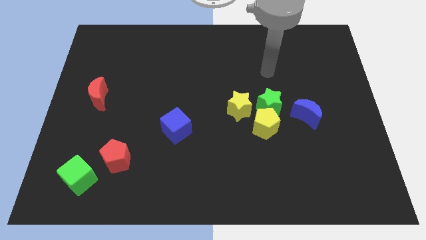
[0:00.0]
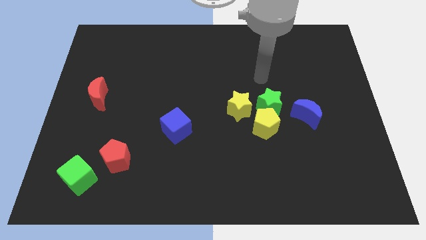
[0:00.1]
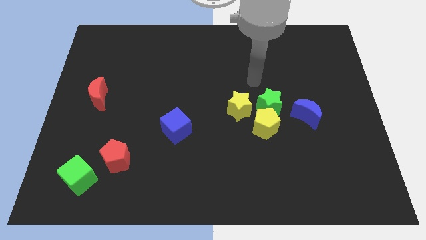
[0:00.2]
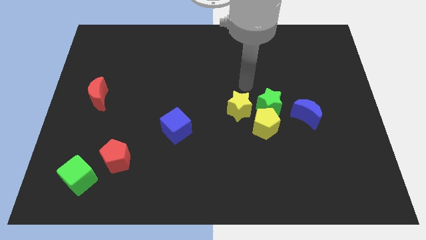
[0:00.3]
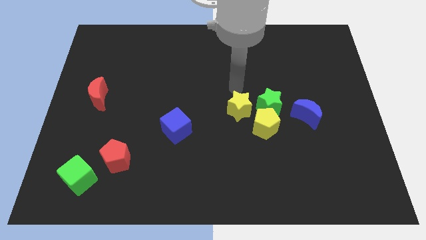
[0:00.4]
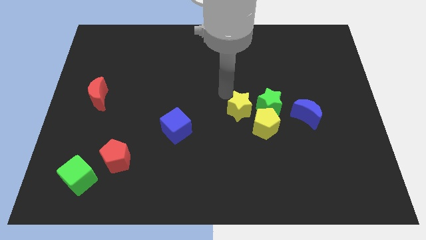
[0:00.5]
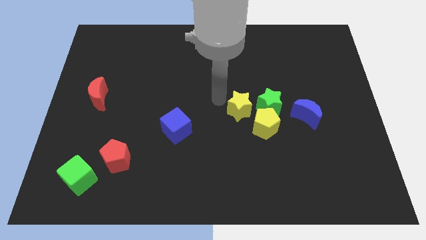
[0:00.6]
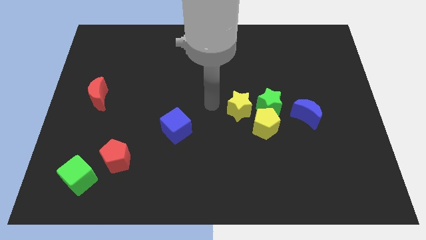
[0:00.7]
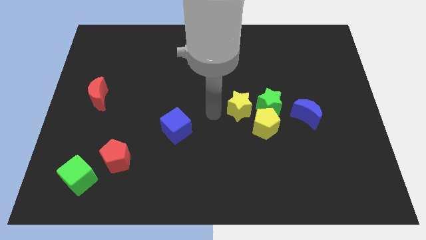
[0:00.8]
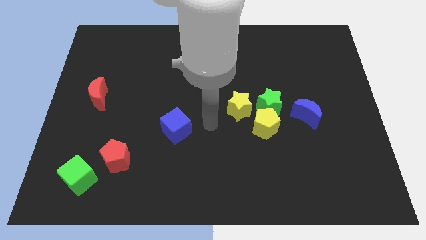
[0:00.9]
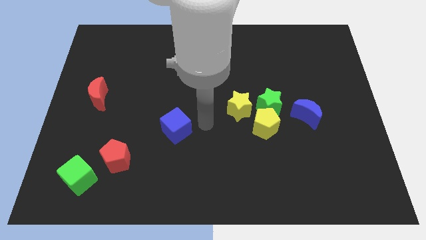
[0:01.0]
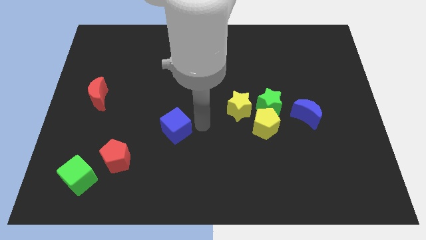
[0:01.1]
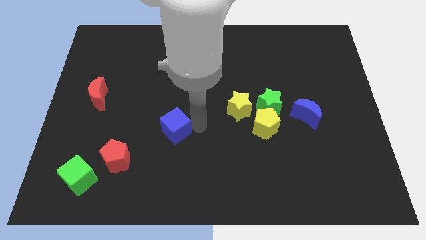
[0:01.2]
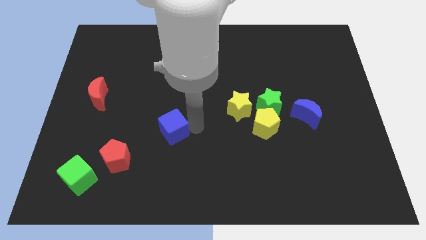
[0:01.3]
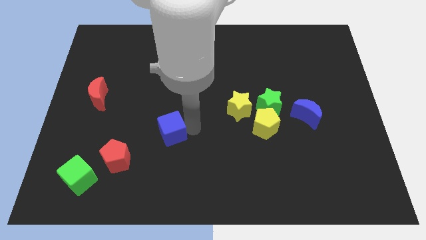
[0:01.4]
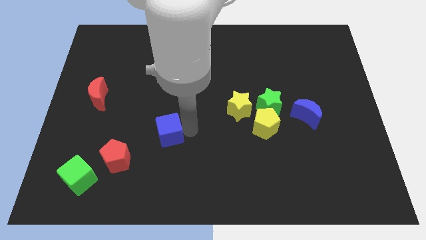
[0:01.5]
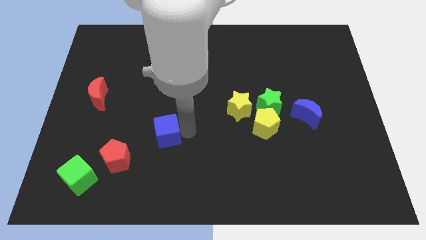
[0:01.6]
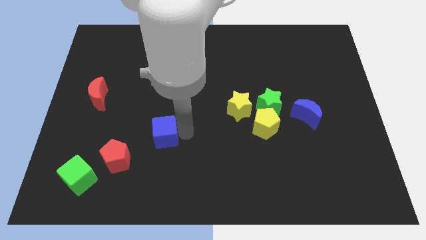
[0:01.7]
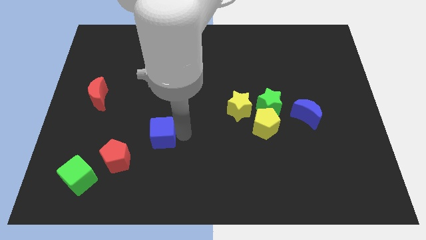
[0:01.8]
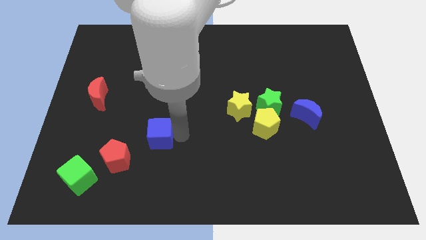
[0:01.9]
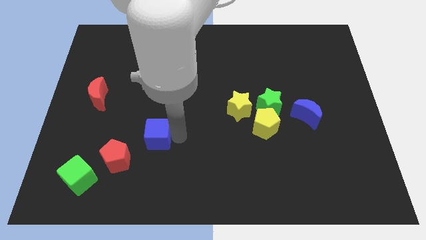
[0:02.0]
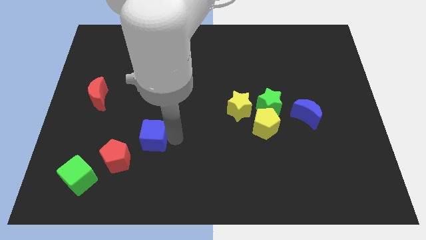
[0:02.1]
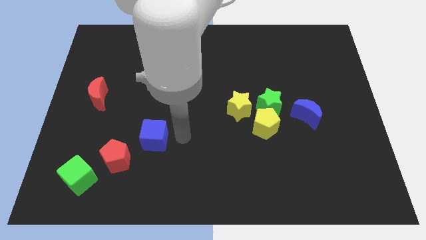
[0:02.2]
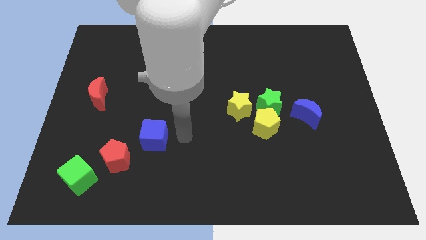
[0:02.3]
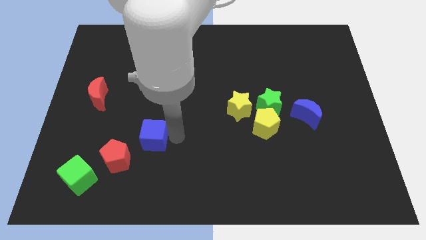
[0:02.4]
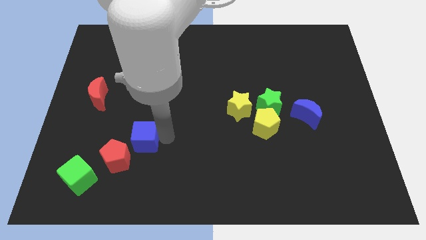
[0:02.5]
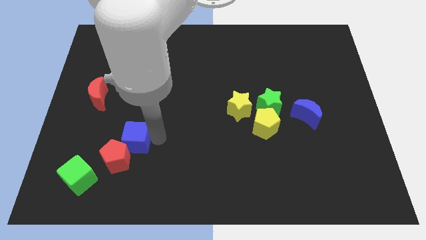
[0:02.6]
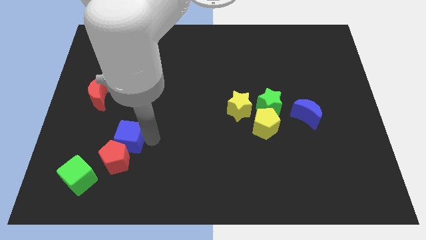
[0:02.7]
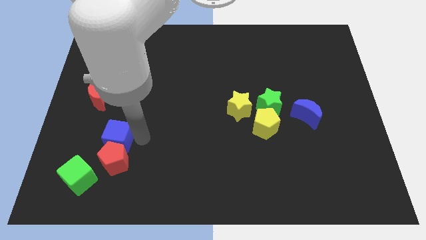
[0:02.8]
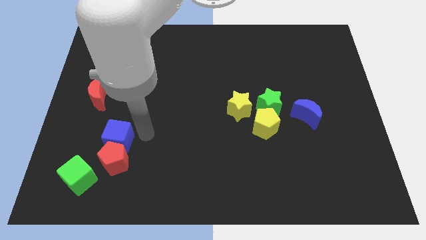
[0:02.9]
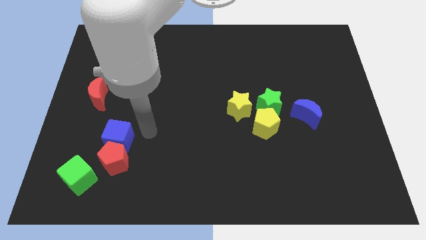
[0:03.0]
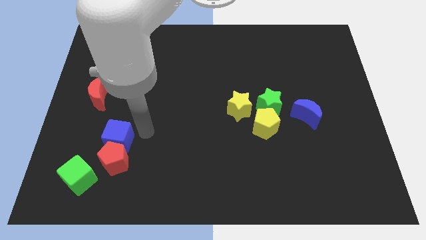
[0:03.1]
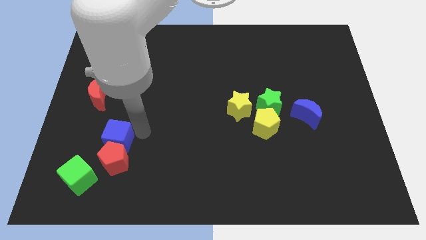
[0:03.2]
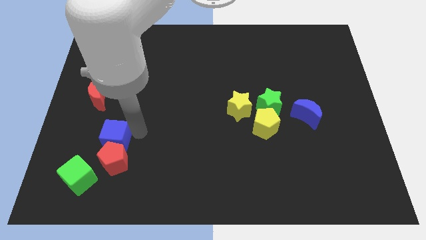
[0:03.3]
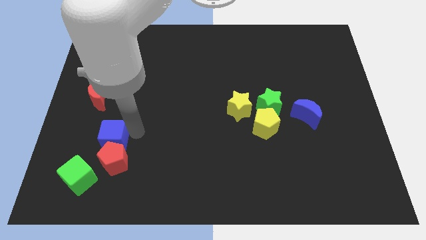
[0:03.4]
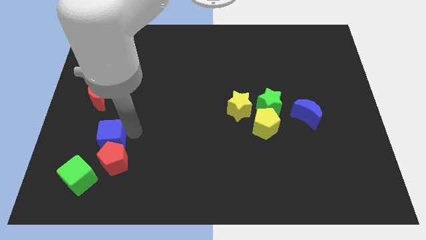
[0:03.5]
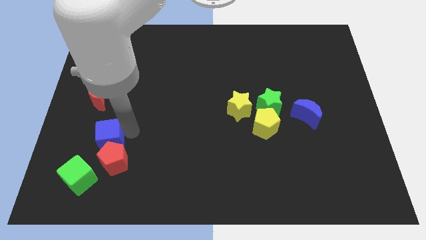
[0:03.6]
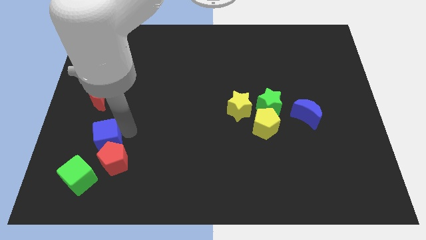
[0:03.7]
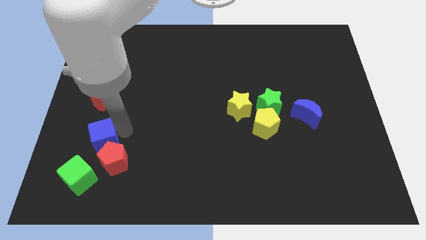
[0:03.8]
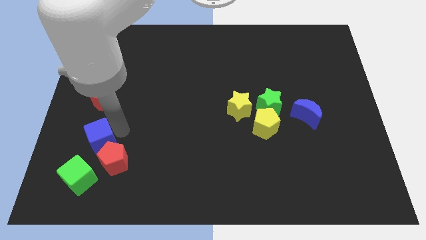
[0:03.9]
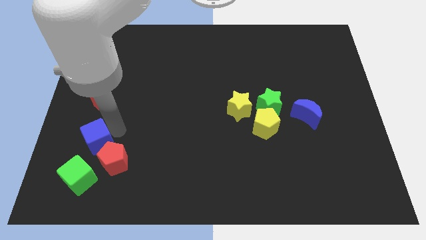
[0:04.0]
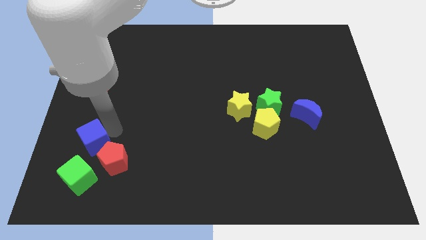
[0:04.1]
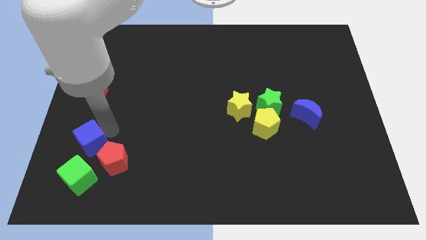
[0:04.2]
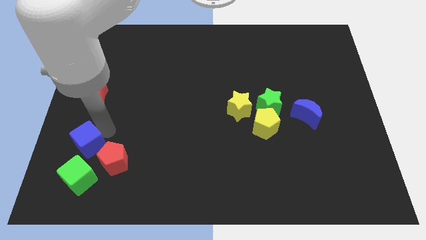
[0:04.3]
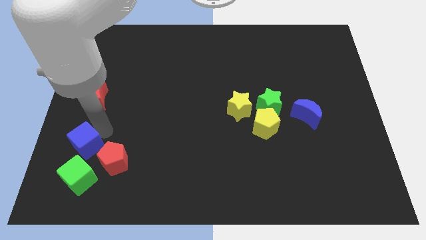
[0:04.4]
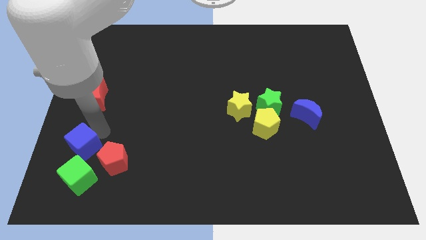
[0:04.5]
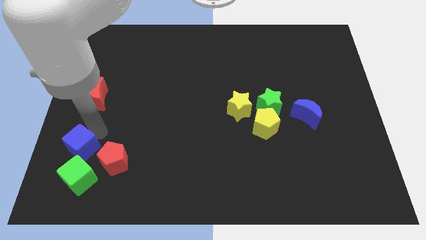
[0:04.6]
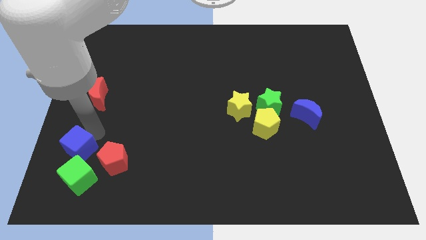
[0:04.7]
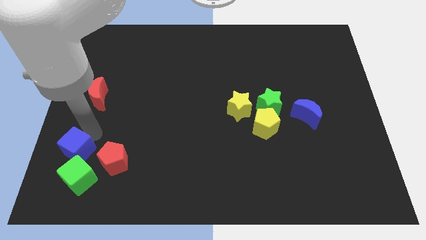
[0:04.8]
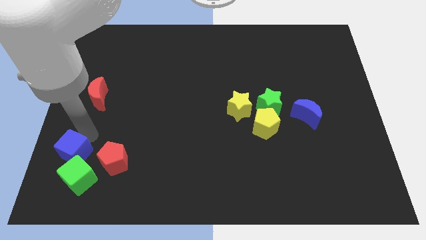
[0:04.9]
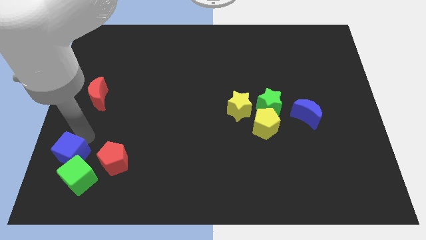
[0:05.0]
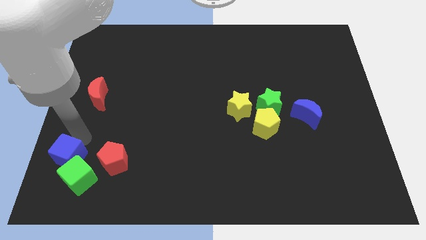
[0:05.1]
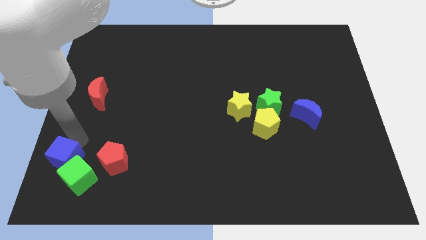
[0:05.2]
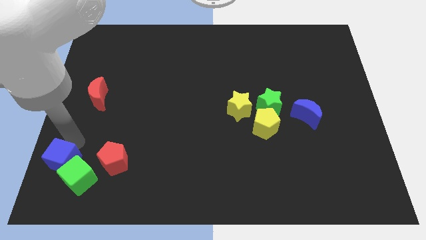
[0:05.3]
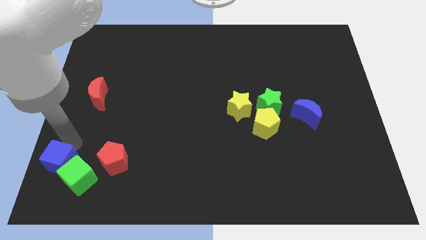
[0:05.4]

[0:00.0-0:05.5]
push the blue cube to the lower left corner

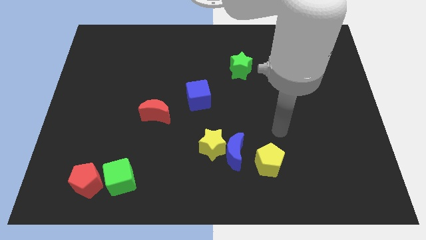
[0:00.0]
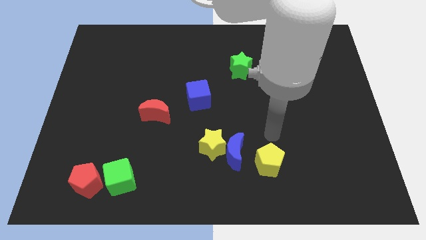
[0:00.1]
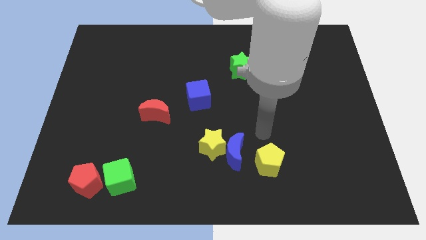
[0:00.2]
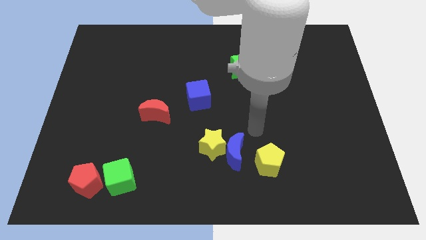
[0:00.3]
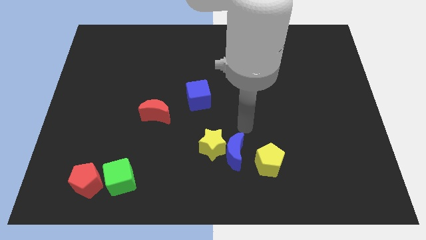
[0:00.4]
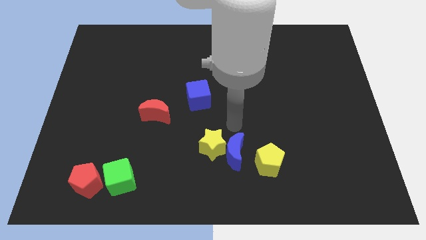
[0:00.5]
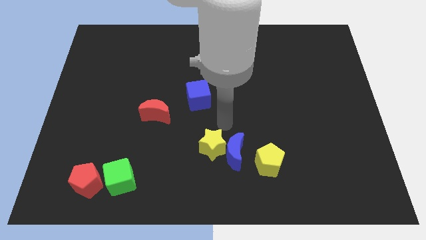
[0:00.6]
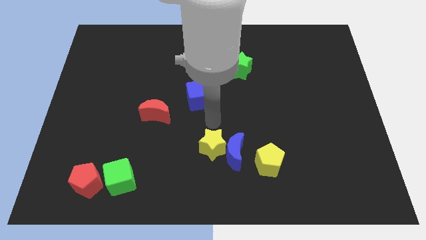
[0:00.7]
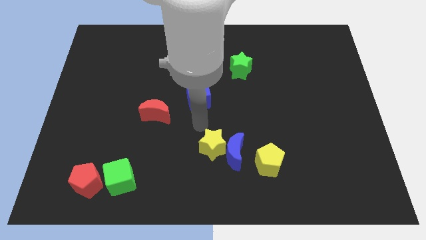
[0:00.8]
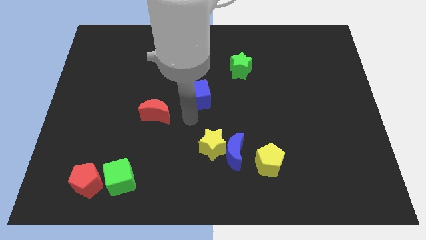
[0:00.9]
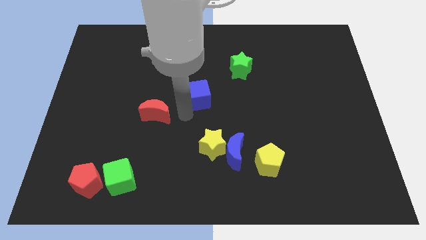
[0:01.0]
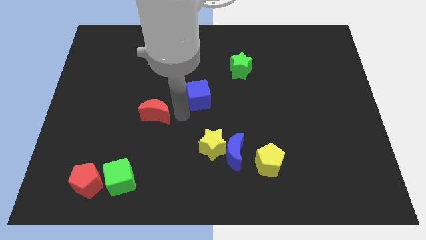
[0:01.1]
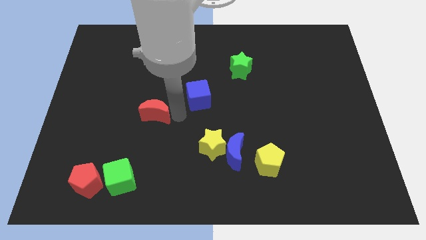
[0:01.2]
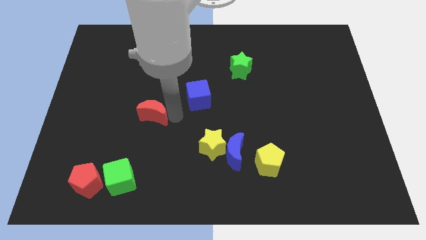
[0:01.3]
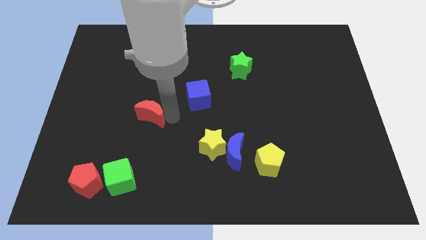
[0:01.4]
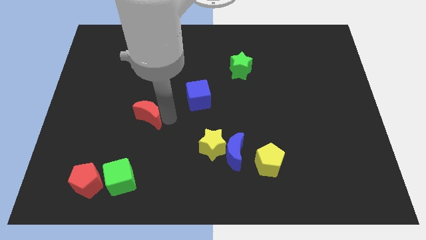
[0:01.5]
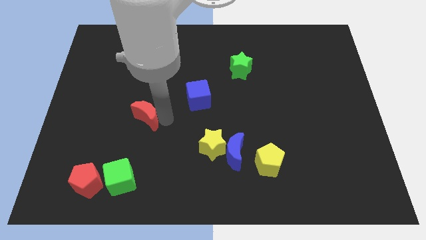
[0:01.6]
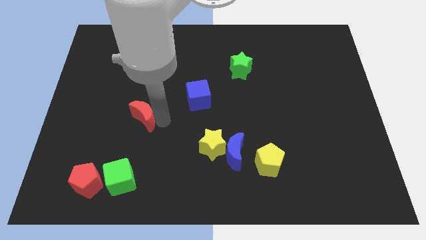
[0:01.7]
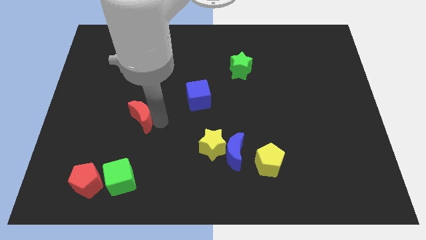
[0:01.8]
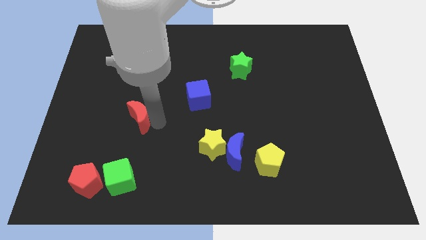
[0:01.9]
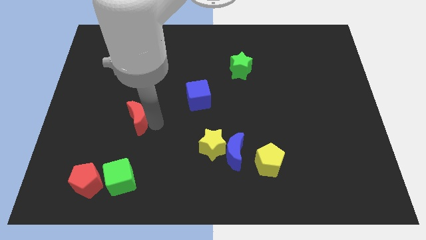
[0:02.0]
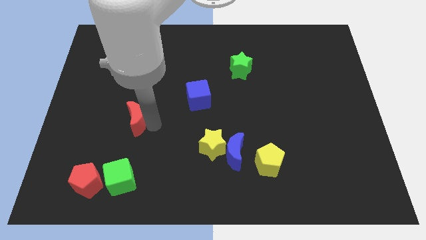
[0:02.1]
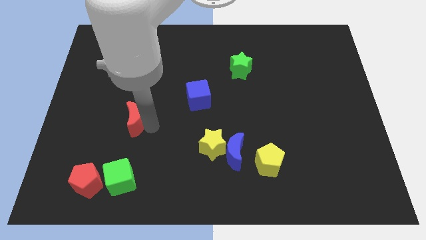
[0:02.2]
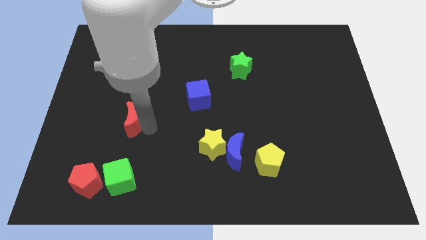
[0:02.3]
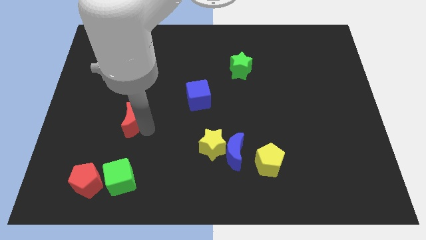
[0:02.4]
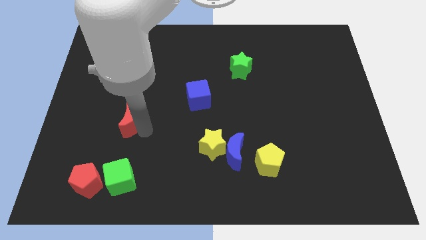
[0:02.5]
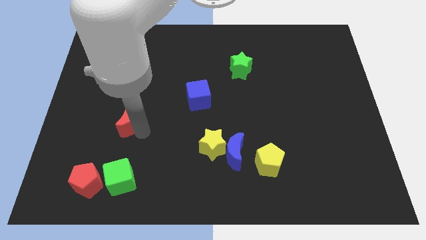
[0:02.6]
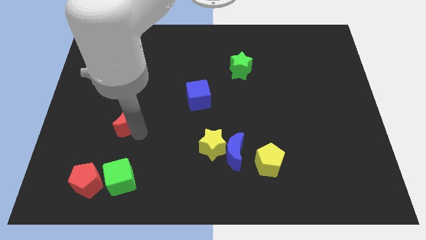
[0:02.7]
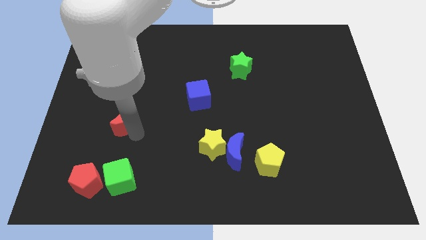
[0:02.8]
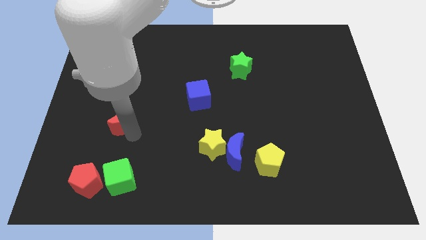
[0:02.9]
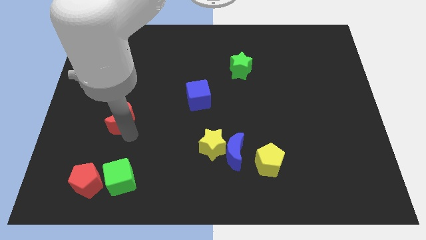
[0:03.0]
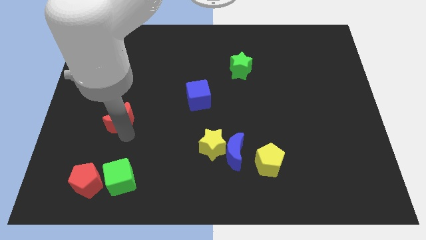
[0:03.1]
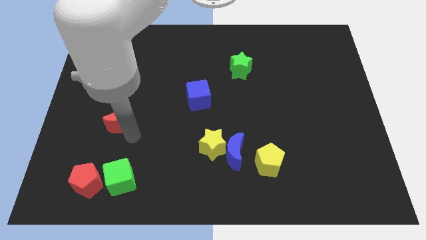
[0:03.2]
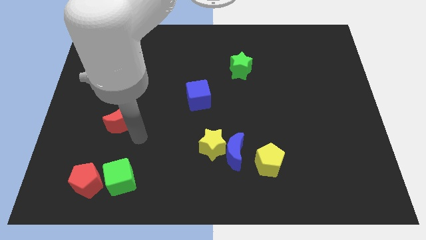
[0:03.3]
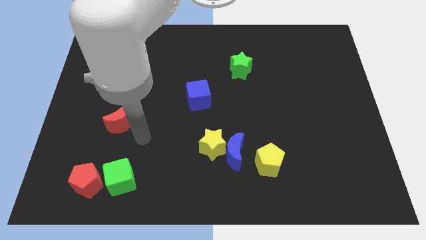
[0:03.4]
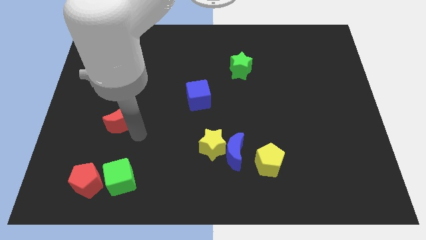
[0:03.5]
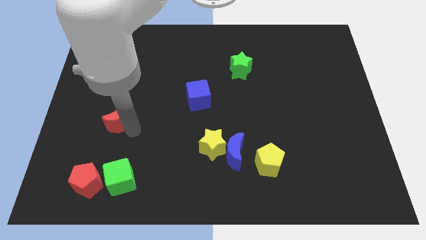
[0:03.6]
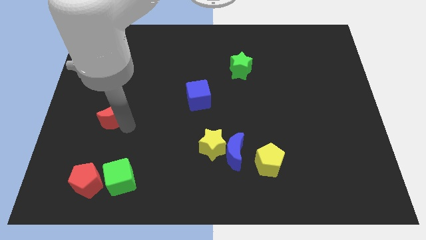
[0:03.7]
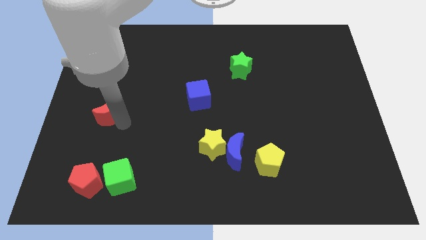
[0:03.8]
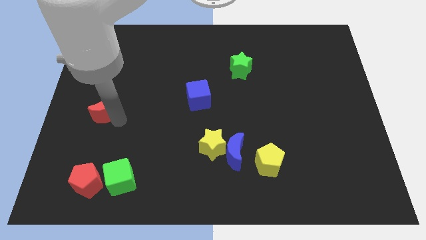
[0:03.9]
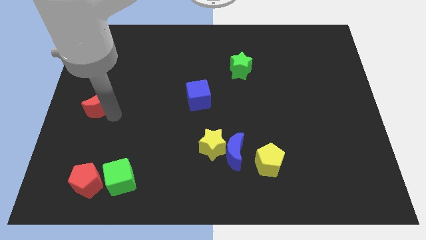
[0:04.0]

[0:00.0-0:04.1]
slide the red moon to the left side of the board
